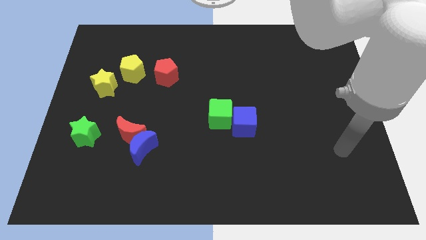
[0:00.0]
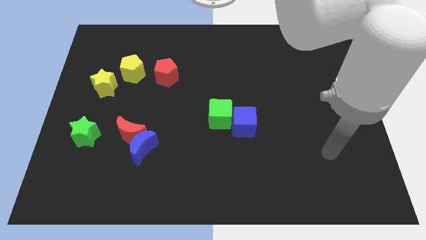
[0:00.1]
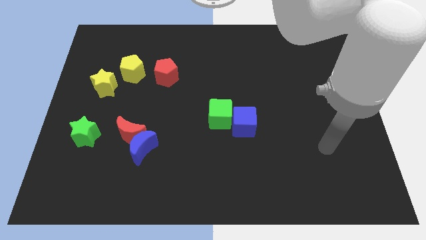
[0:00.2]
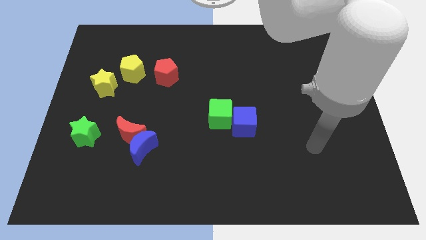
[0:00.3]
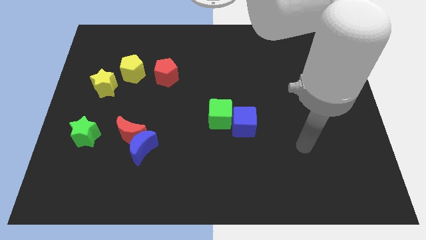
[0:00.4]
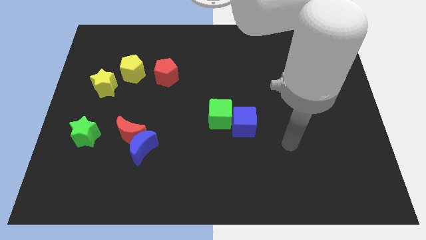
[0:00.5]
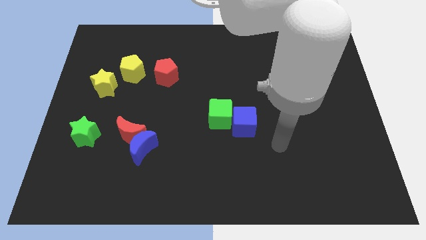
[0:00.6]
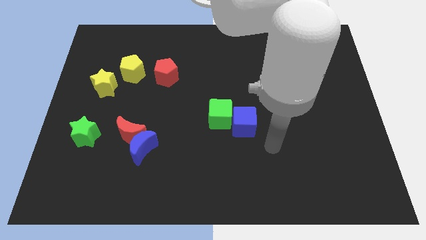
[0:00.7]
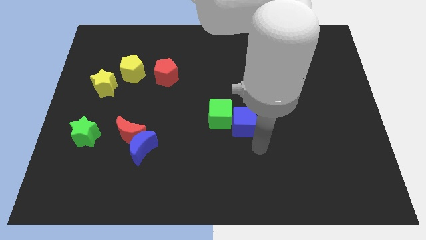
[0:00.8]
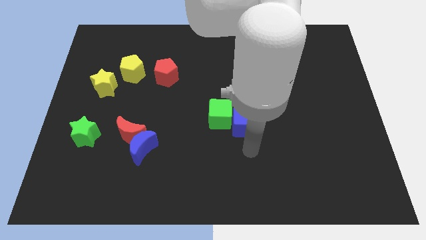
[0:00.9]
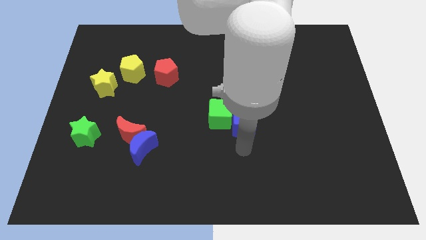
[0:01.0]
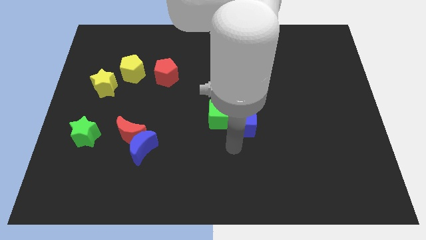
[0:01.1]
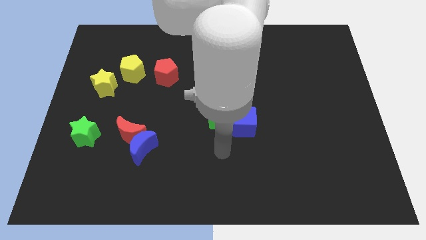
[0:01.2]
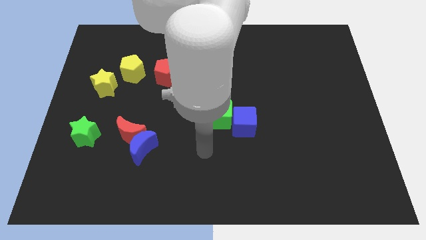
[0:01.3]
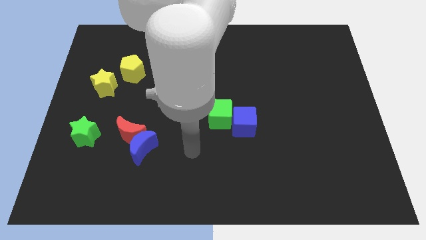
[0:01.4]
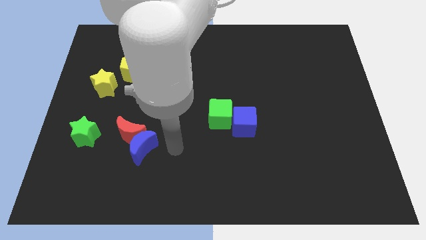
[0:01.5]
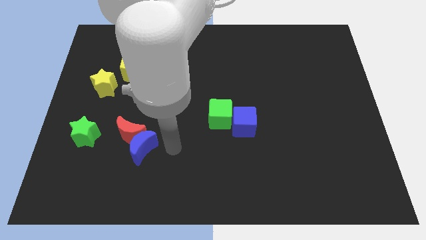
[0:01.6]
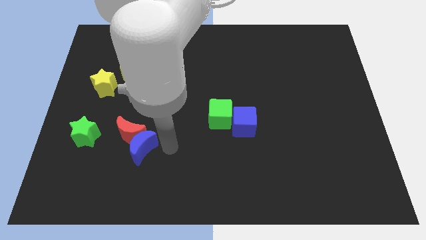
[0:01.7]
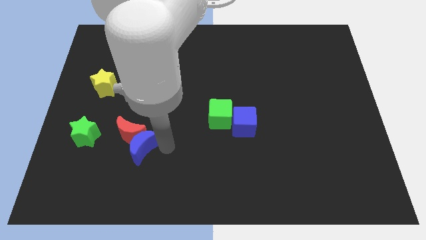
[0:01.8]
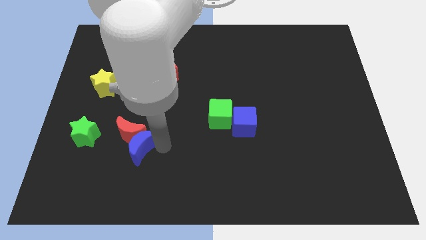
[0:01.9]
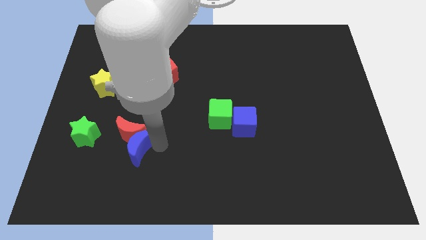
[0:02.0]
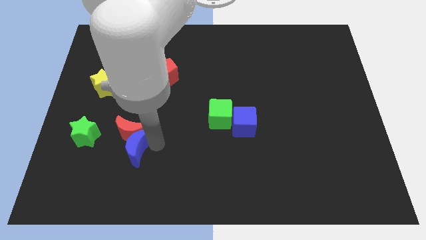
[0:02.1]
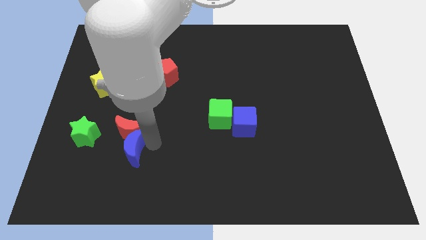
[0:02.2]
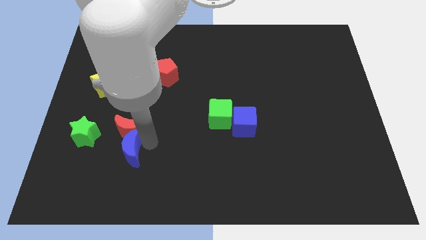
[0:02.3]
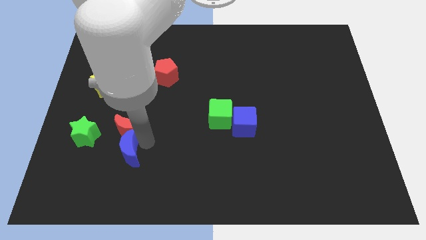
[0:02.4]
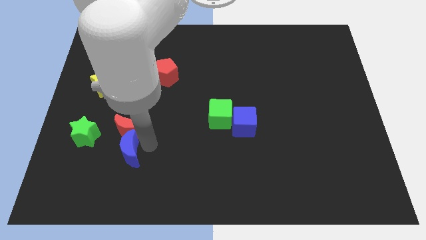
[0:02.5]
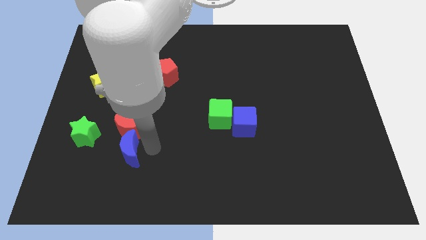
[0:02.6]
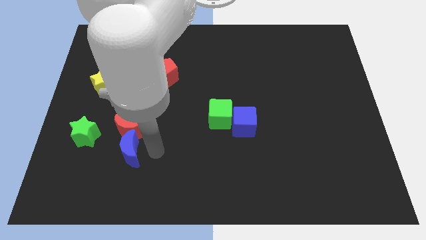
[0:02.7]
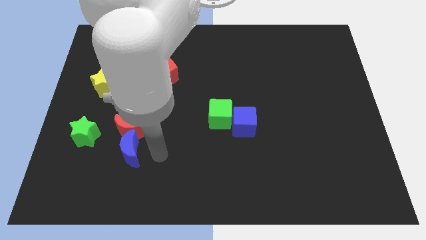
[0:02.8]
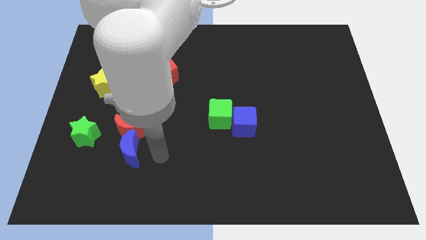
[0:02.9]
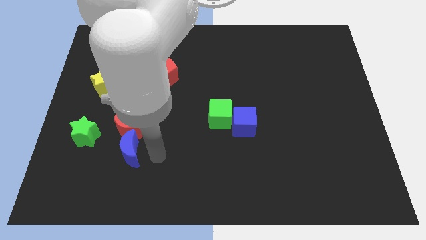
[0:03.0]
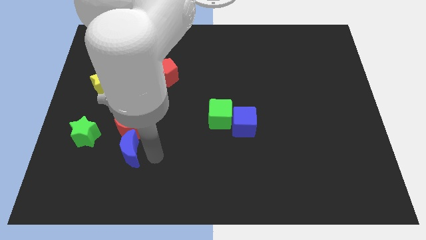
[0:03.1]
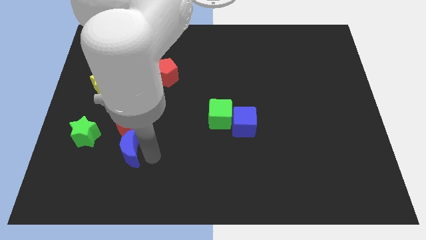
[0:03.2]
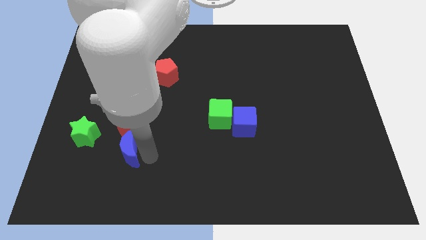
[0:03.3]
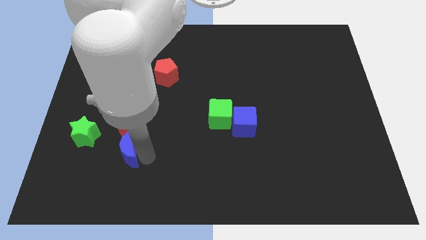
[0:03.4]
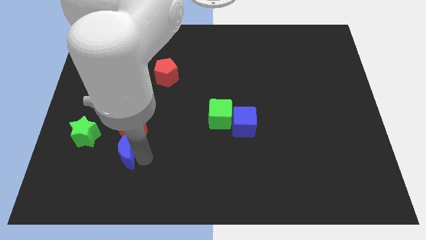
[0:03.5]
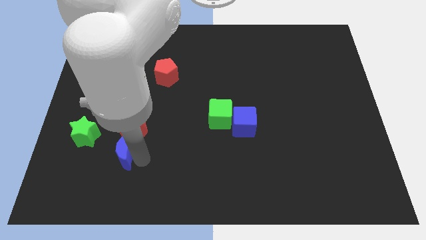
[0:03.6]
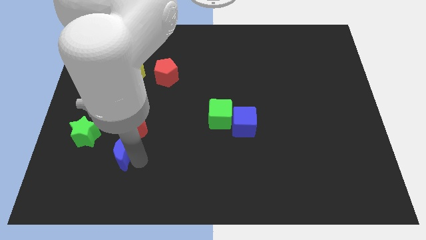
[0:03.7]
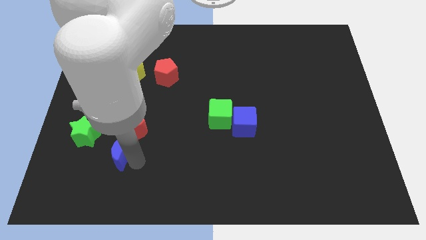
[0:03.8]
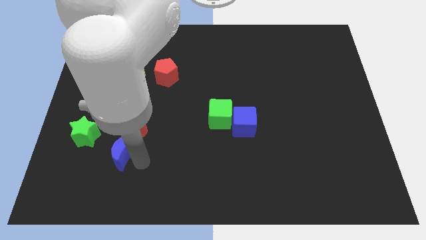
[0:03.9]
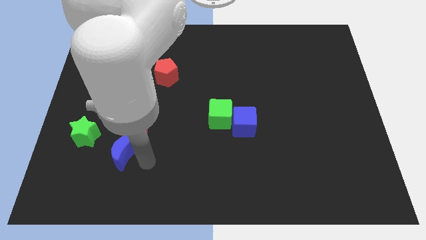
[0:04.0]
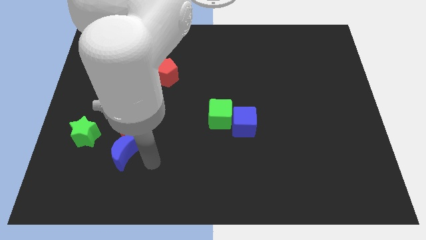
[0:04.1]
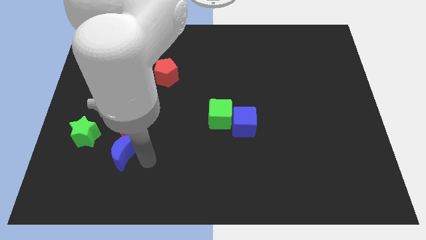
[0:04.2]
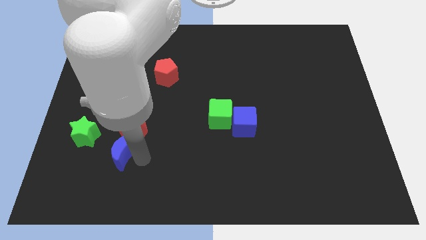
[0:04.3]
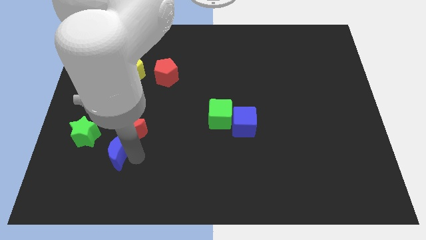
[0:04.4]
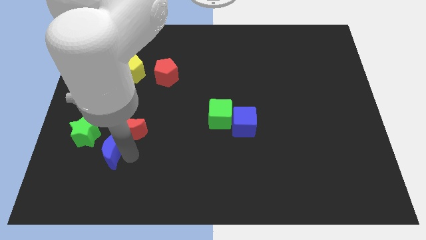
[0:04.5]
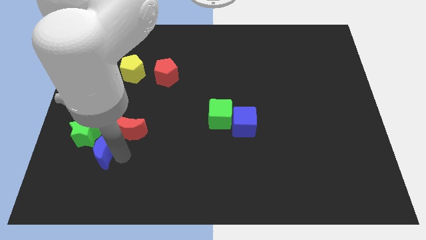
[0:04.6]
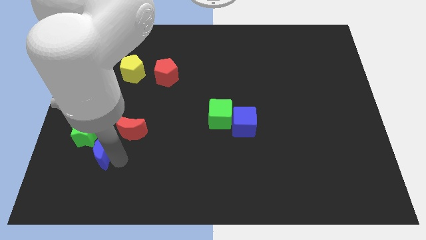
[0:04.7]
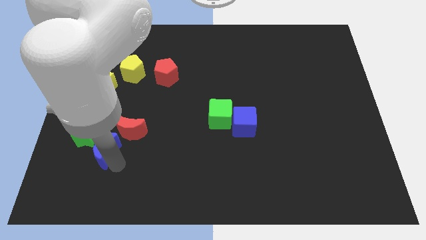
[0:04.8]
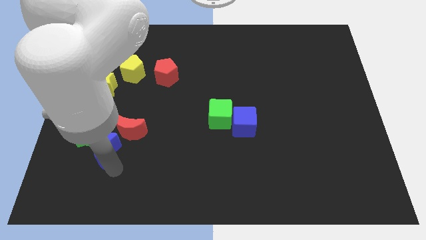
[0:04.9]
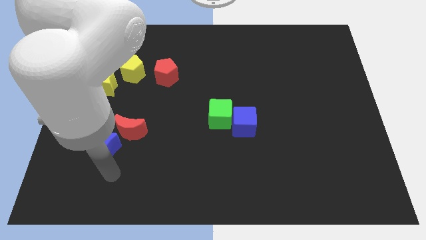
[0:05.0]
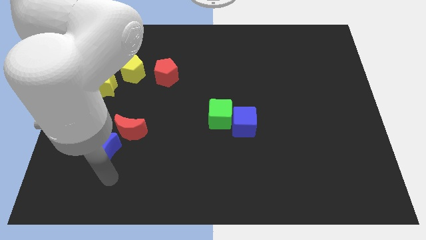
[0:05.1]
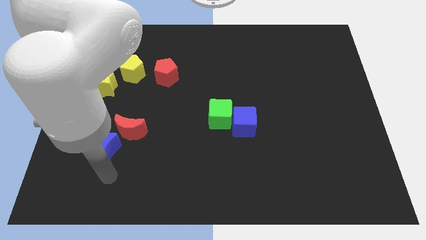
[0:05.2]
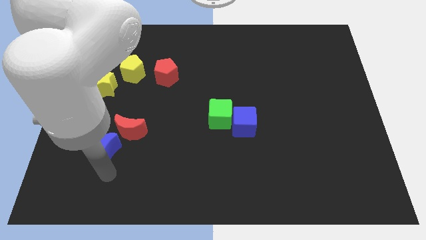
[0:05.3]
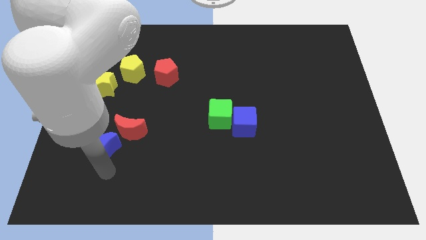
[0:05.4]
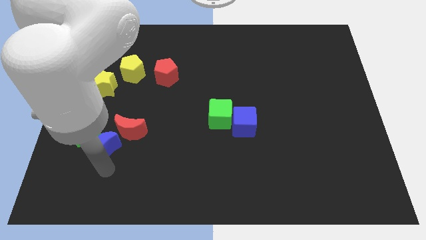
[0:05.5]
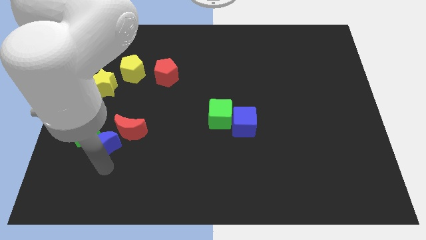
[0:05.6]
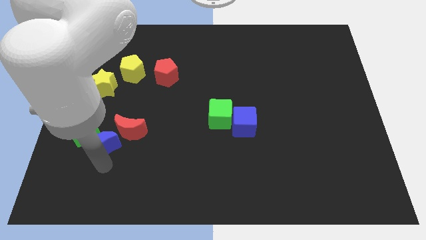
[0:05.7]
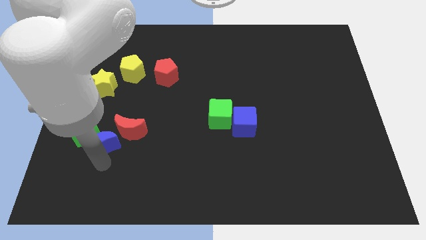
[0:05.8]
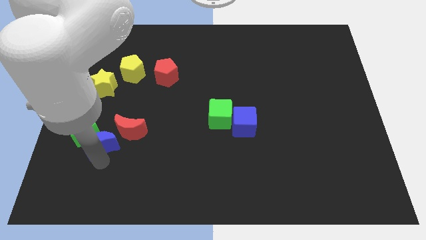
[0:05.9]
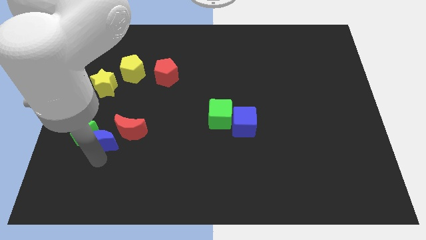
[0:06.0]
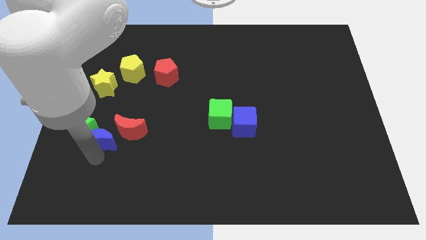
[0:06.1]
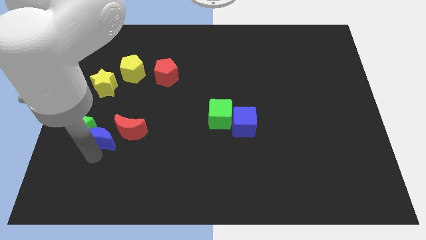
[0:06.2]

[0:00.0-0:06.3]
move the blue moon diagonally up and to the left somewhat

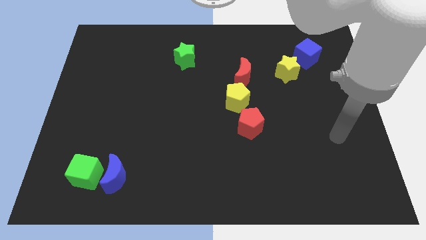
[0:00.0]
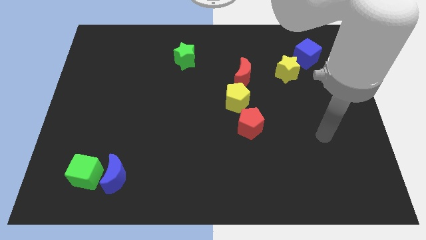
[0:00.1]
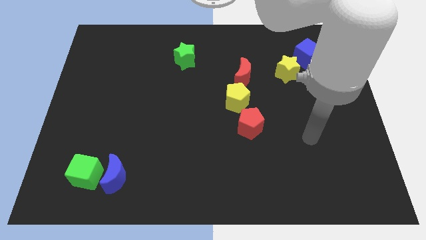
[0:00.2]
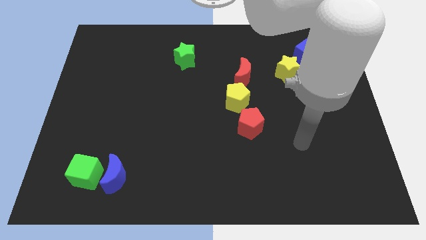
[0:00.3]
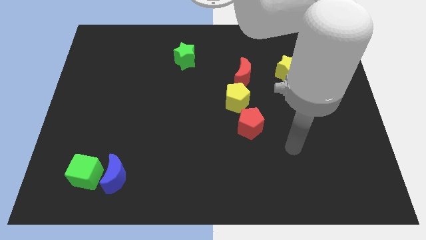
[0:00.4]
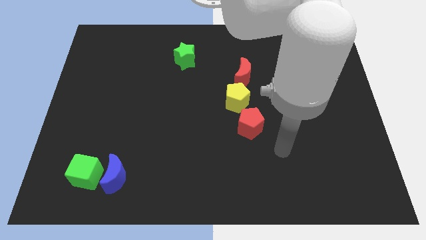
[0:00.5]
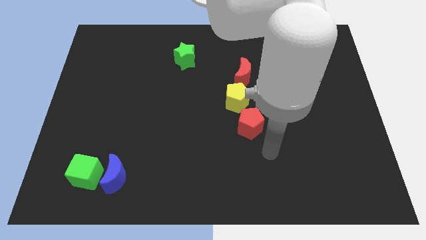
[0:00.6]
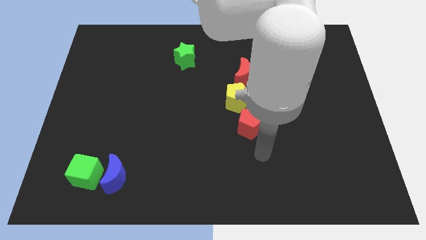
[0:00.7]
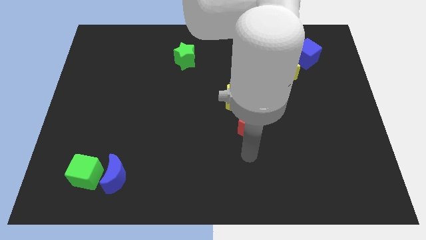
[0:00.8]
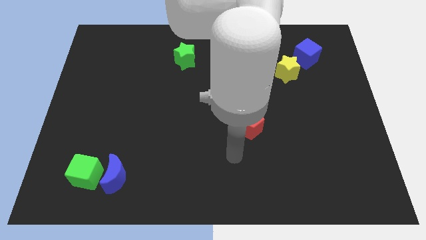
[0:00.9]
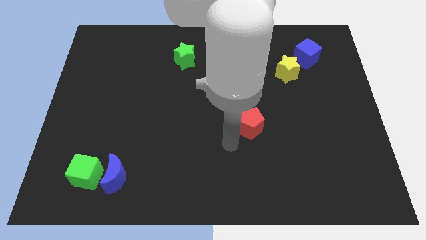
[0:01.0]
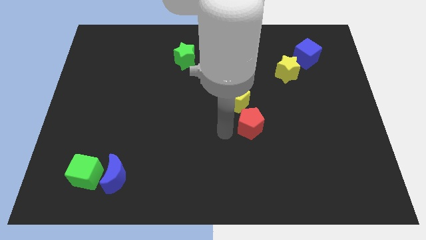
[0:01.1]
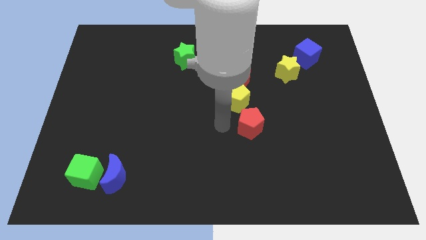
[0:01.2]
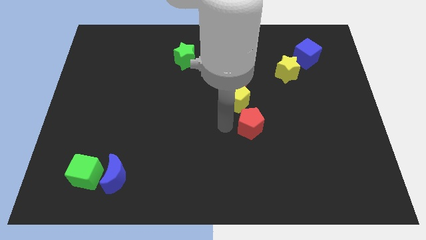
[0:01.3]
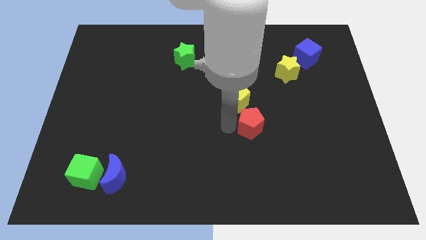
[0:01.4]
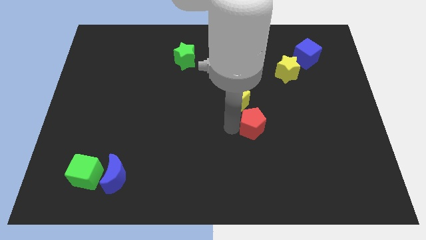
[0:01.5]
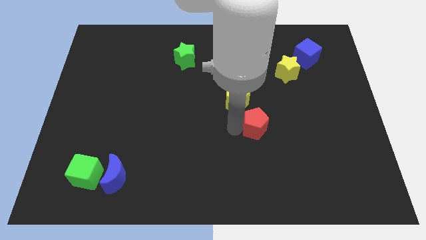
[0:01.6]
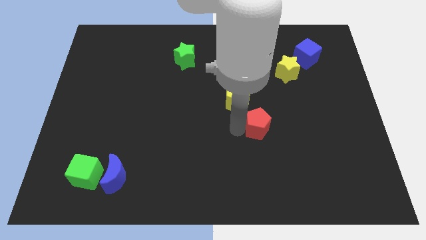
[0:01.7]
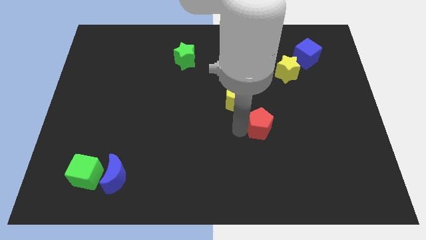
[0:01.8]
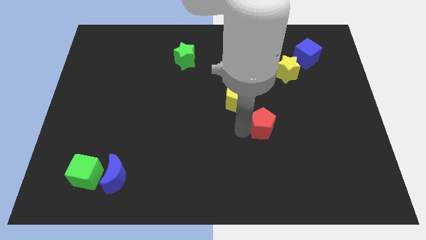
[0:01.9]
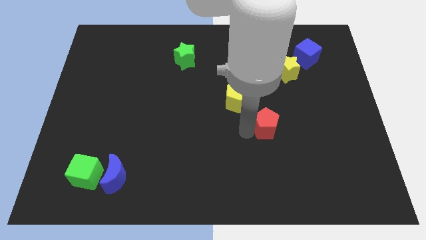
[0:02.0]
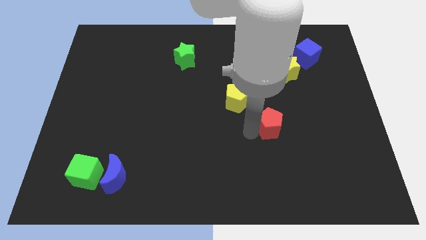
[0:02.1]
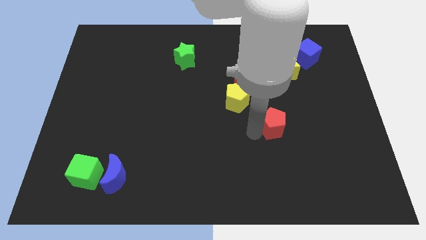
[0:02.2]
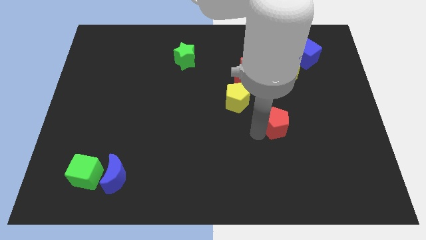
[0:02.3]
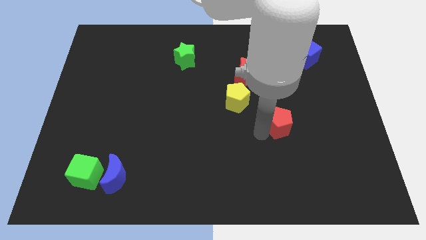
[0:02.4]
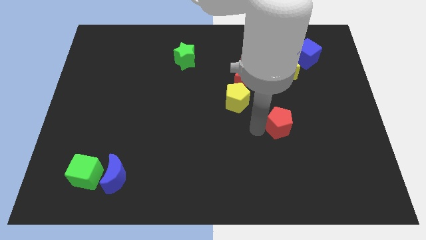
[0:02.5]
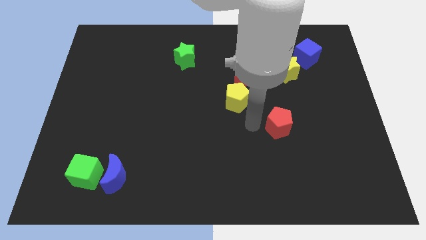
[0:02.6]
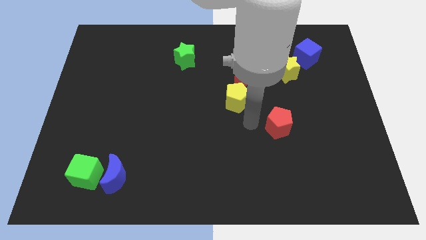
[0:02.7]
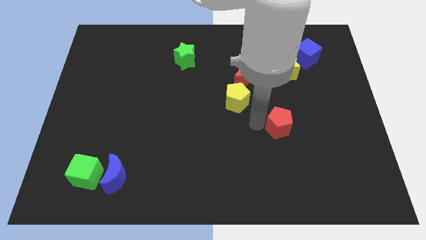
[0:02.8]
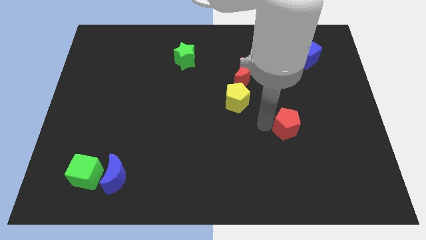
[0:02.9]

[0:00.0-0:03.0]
slightly move the red pentagon right
